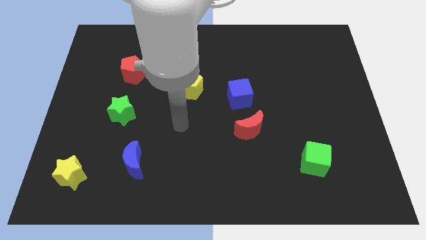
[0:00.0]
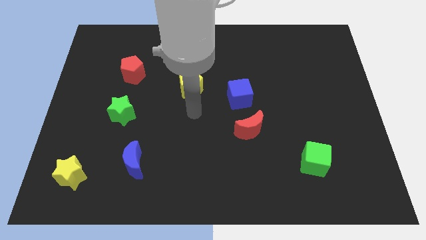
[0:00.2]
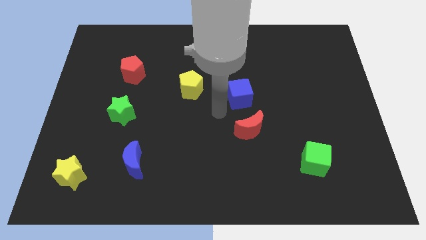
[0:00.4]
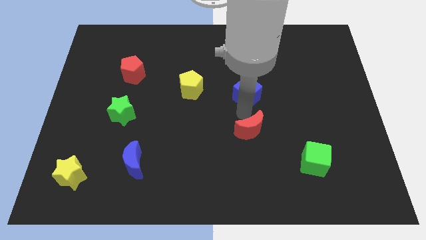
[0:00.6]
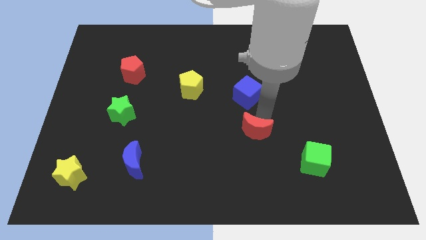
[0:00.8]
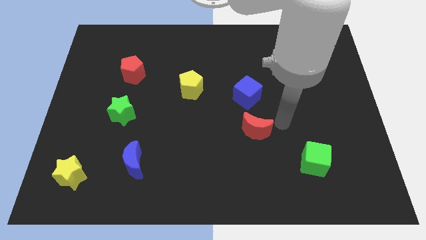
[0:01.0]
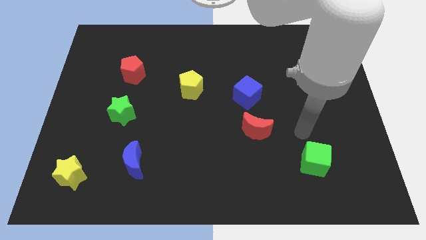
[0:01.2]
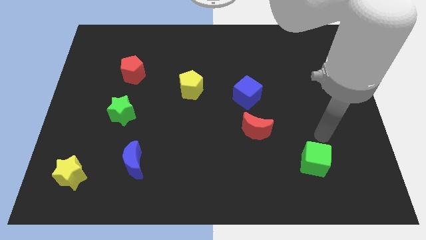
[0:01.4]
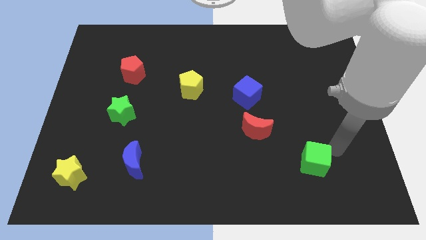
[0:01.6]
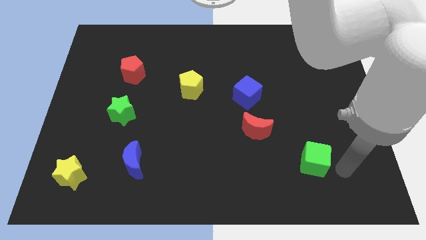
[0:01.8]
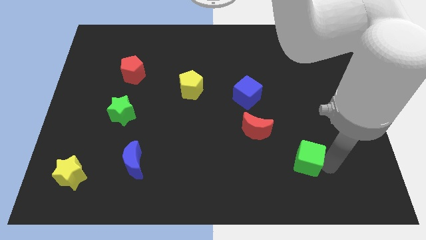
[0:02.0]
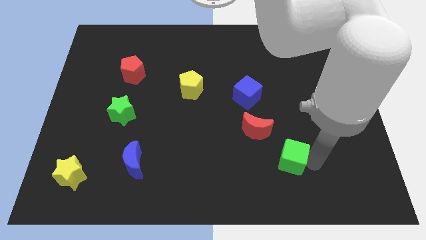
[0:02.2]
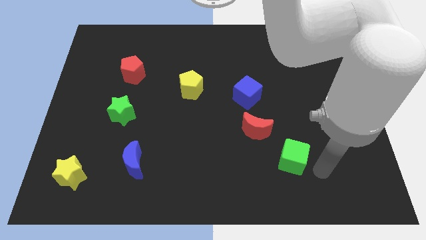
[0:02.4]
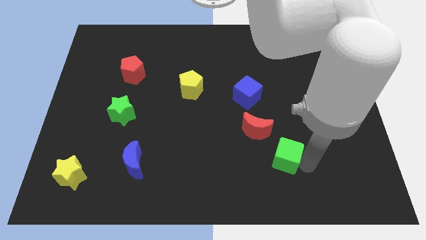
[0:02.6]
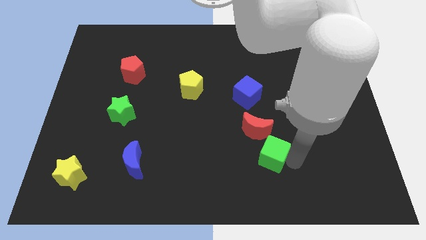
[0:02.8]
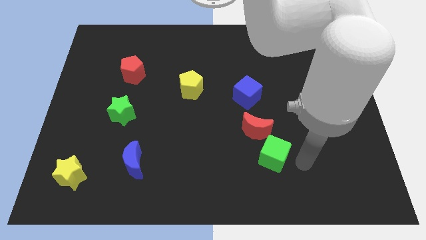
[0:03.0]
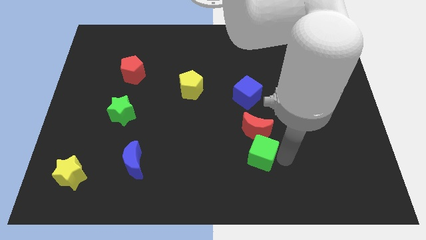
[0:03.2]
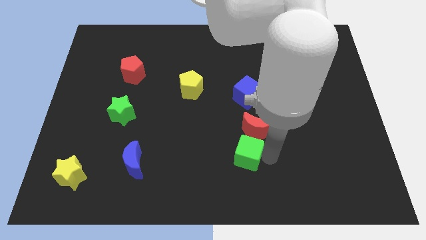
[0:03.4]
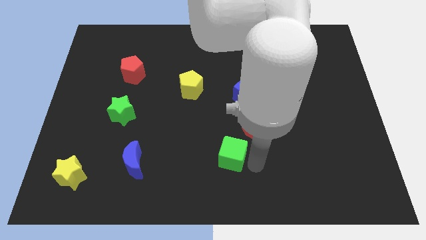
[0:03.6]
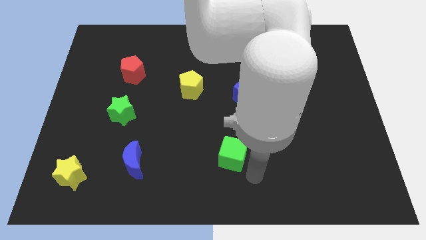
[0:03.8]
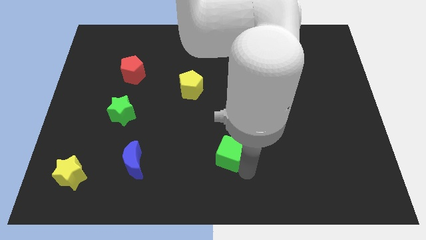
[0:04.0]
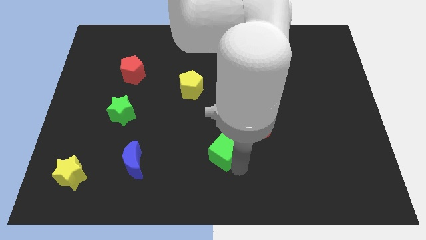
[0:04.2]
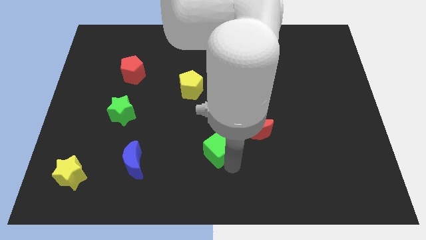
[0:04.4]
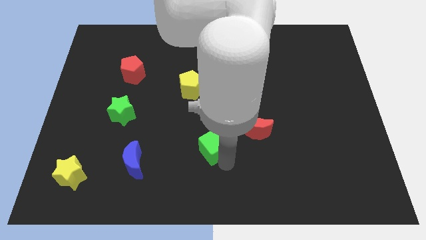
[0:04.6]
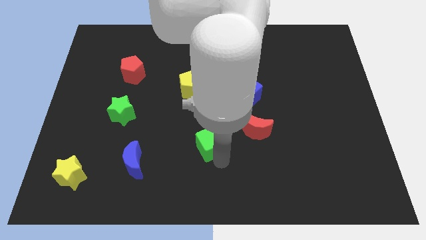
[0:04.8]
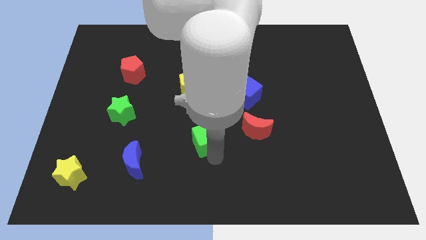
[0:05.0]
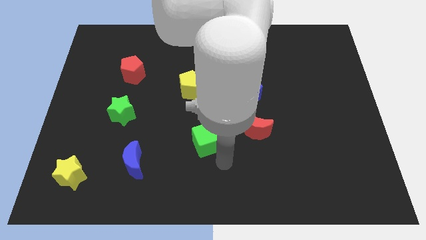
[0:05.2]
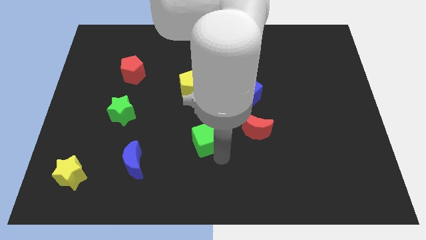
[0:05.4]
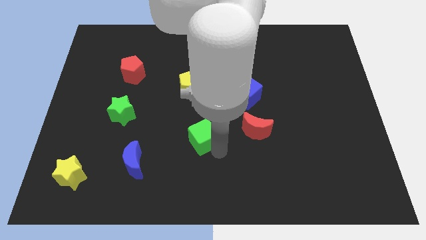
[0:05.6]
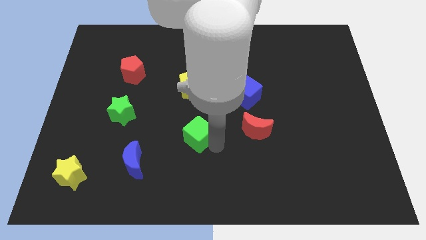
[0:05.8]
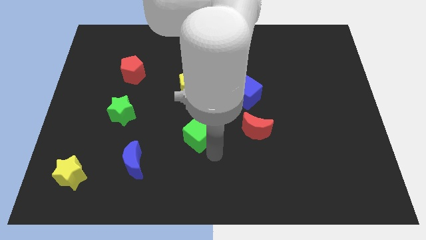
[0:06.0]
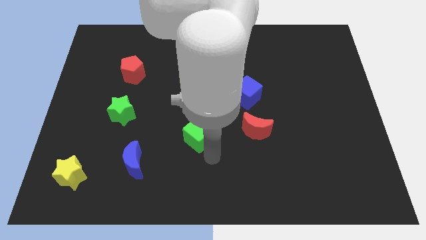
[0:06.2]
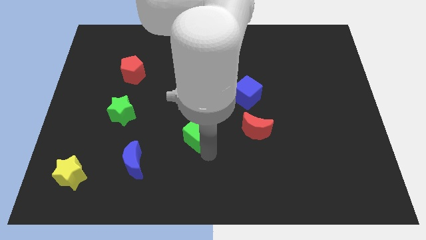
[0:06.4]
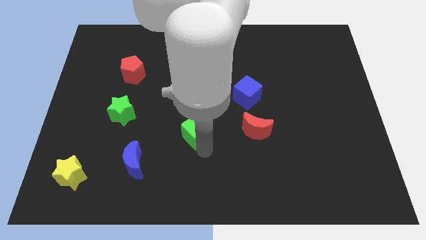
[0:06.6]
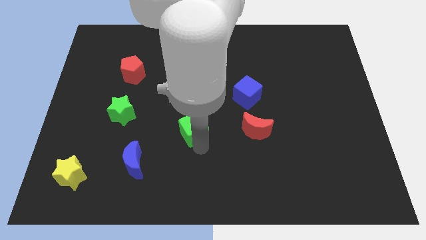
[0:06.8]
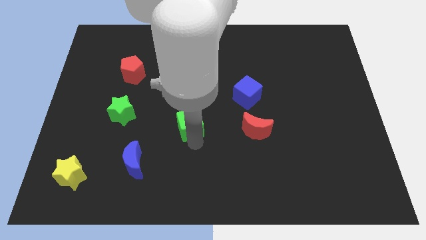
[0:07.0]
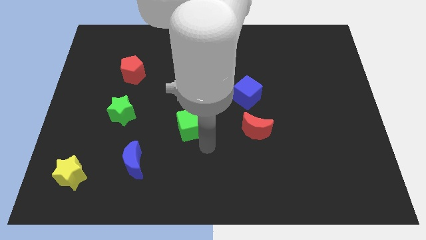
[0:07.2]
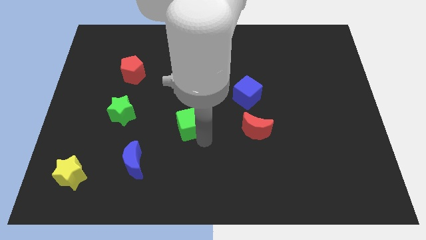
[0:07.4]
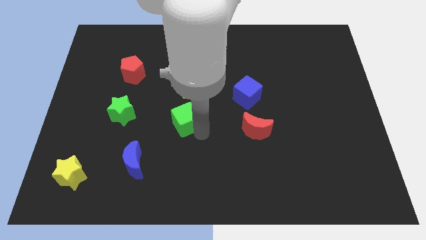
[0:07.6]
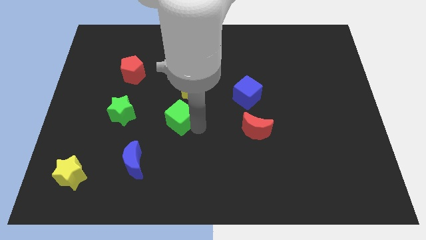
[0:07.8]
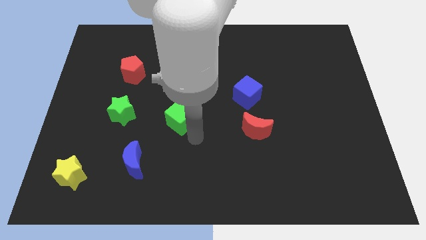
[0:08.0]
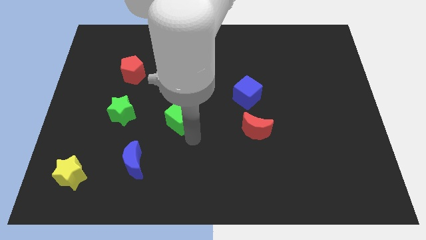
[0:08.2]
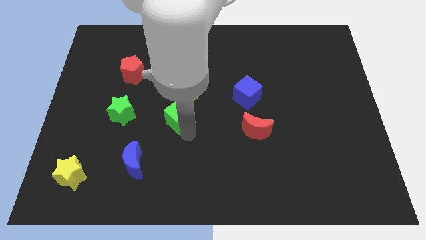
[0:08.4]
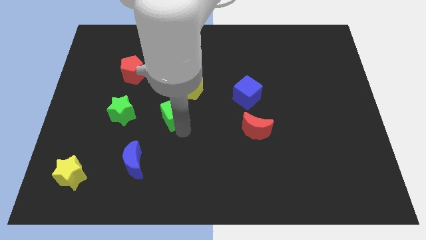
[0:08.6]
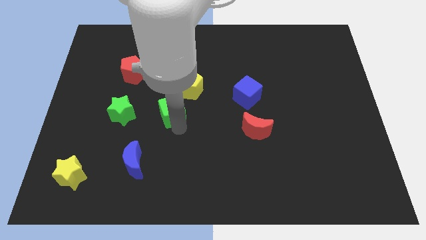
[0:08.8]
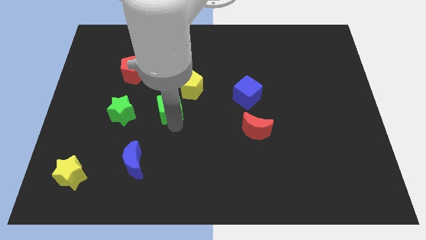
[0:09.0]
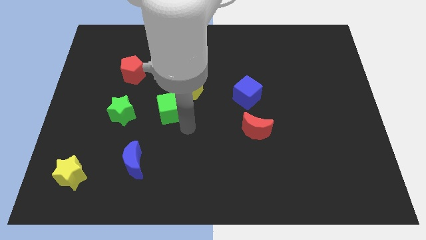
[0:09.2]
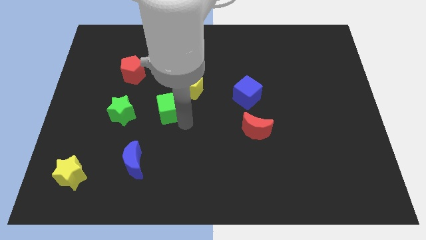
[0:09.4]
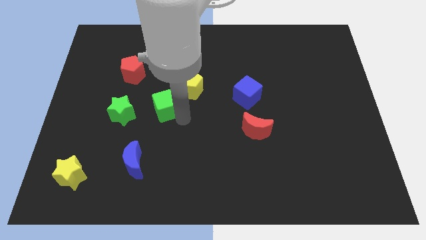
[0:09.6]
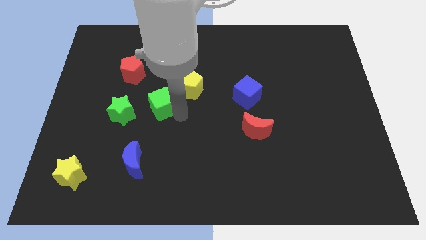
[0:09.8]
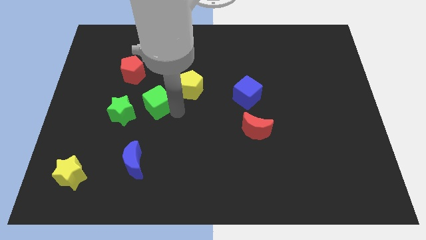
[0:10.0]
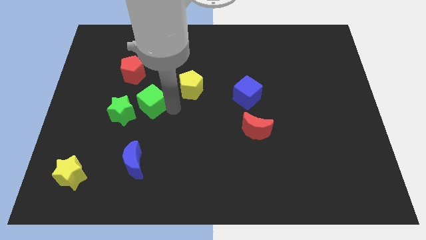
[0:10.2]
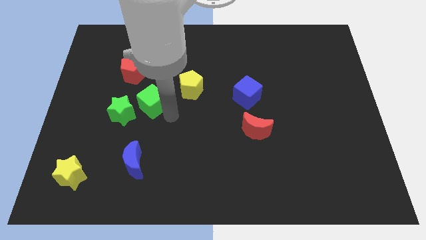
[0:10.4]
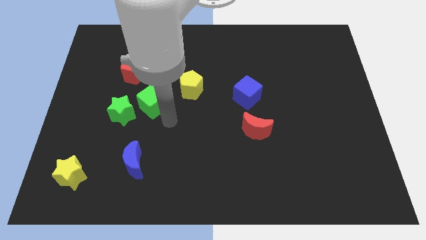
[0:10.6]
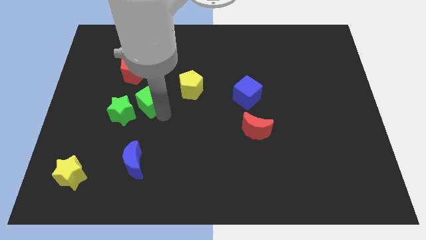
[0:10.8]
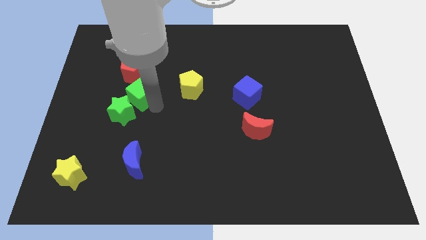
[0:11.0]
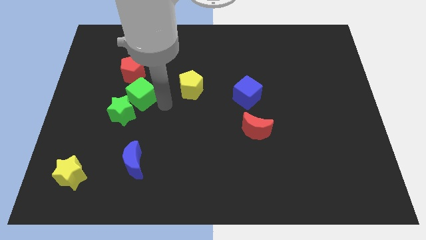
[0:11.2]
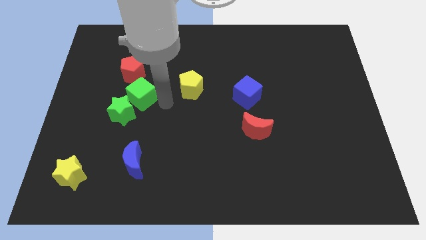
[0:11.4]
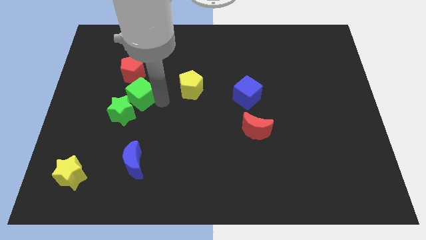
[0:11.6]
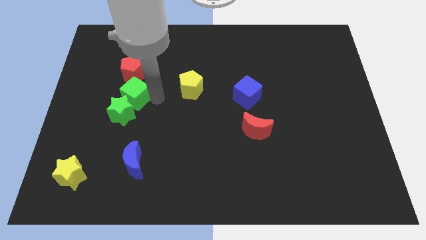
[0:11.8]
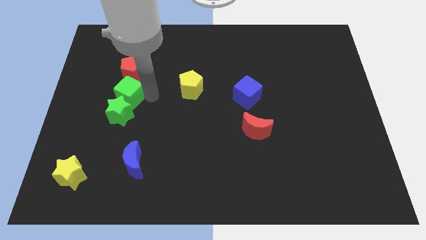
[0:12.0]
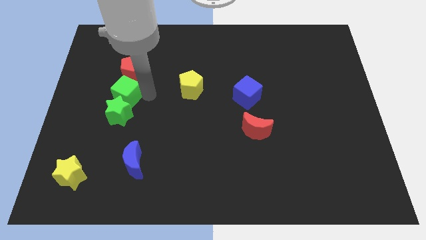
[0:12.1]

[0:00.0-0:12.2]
put the green cube diagonally up and to the left of the green star
